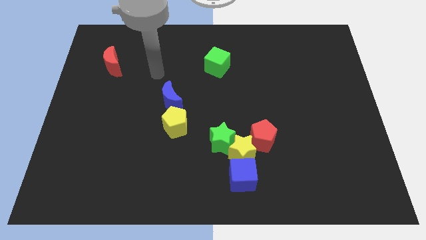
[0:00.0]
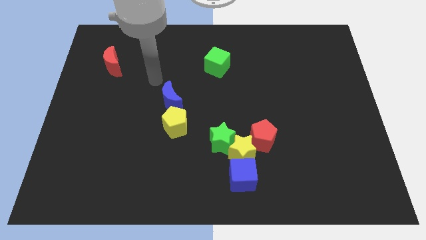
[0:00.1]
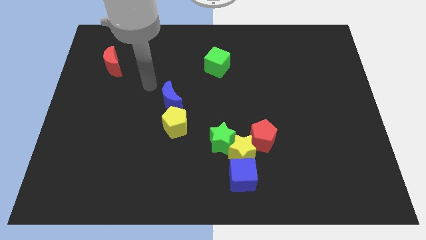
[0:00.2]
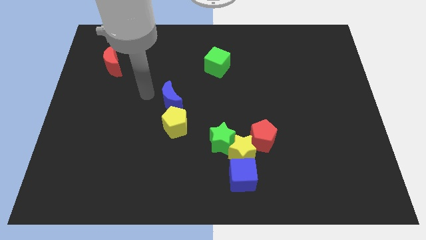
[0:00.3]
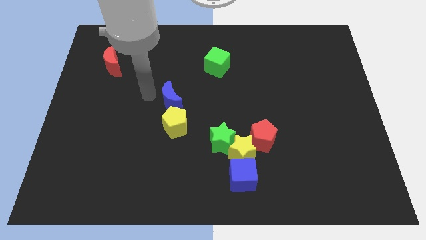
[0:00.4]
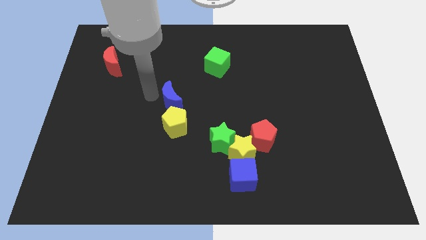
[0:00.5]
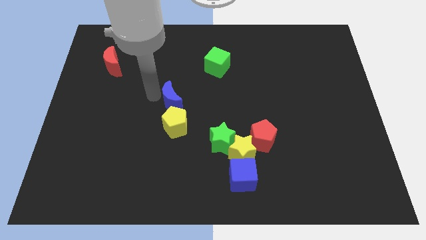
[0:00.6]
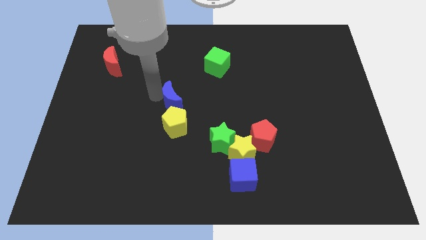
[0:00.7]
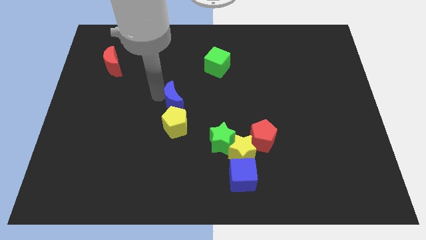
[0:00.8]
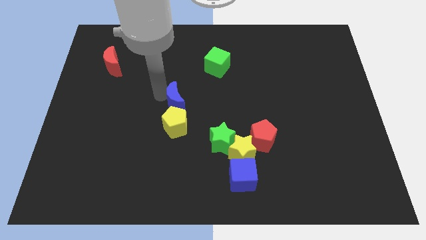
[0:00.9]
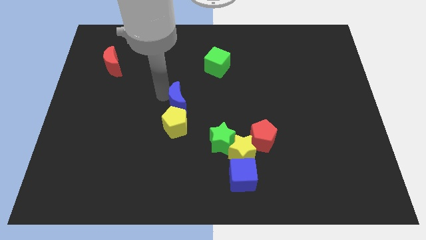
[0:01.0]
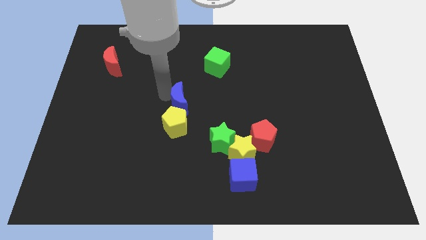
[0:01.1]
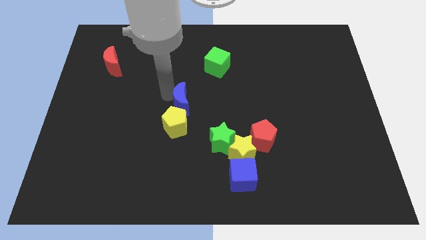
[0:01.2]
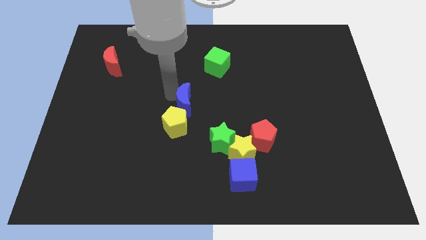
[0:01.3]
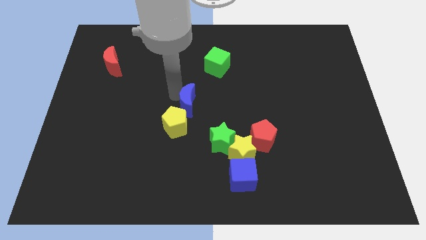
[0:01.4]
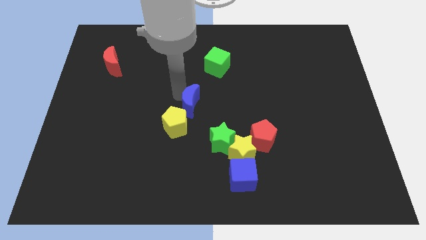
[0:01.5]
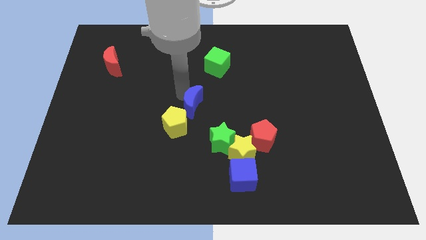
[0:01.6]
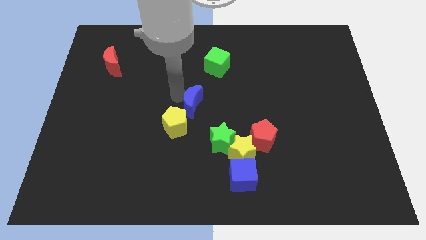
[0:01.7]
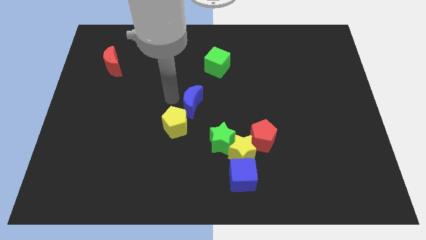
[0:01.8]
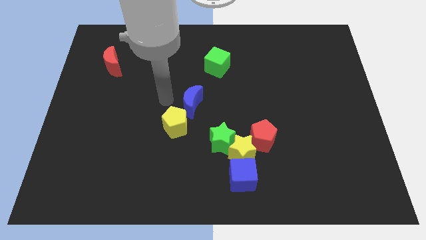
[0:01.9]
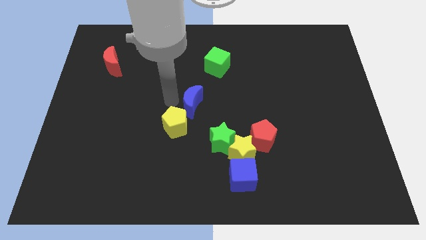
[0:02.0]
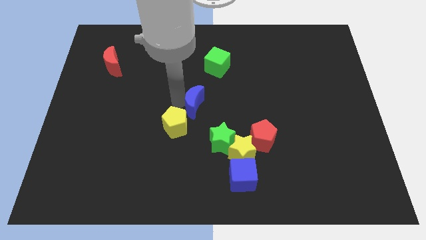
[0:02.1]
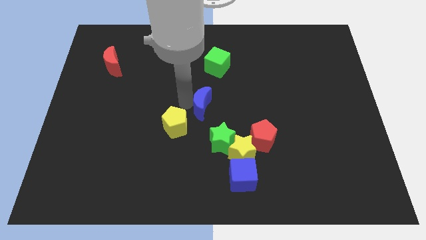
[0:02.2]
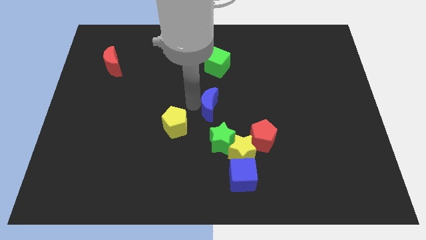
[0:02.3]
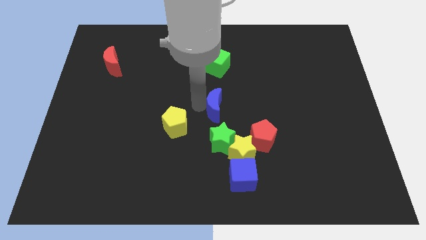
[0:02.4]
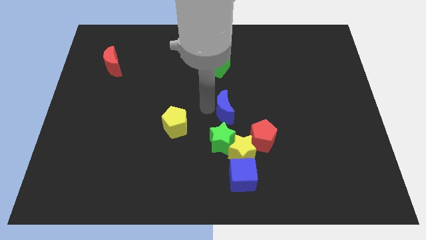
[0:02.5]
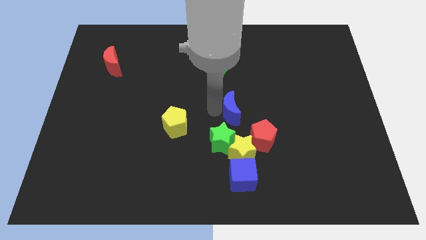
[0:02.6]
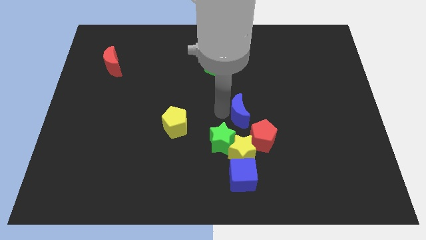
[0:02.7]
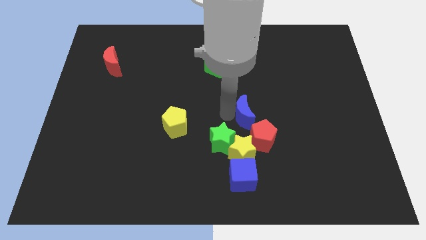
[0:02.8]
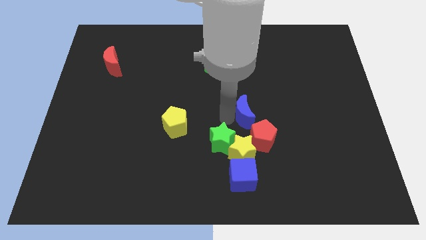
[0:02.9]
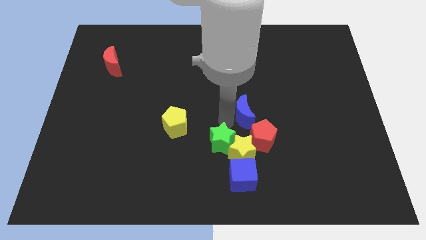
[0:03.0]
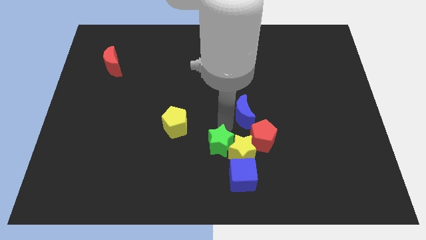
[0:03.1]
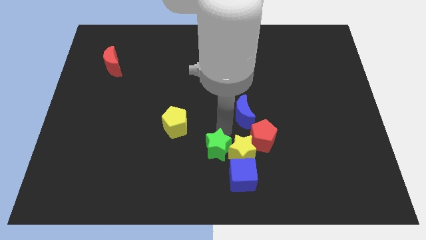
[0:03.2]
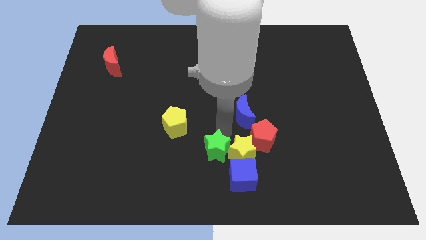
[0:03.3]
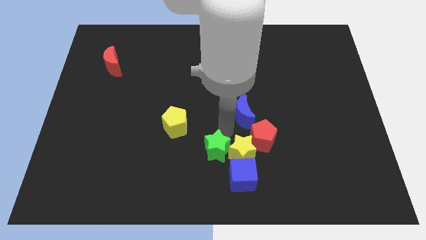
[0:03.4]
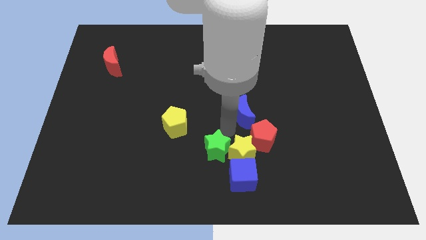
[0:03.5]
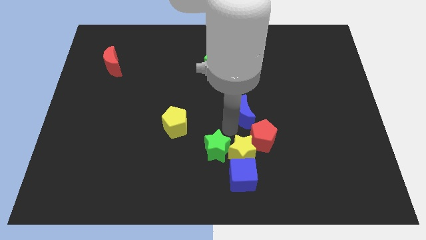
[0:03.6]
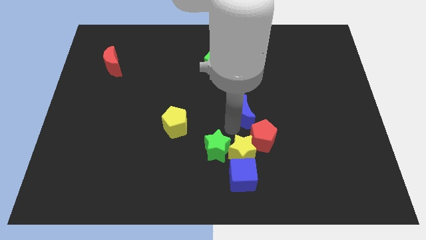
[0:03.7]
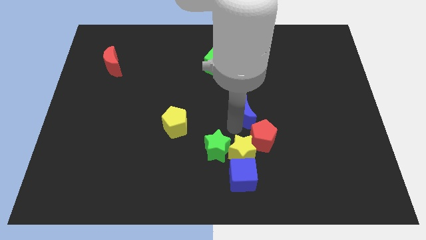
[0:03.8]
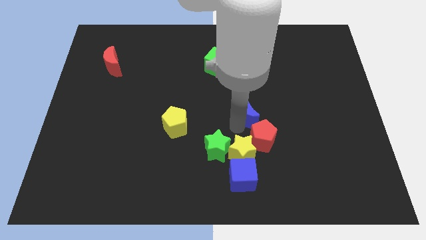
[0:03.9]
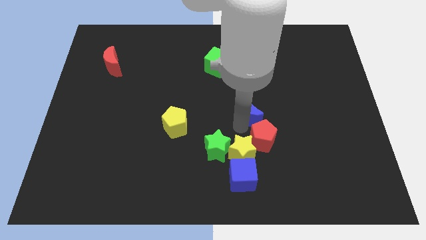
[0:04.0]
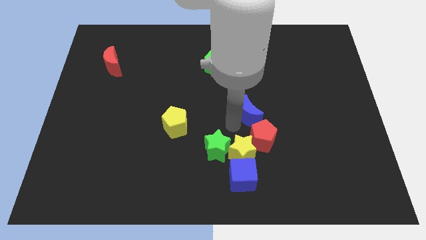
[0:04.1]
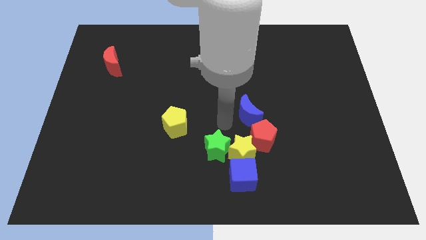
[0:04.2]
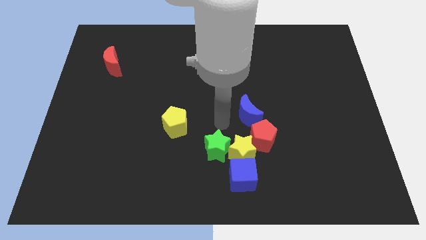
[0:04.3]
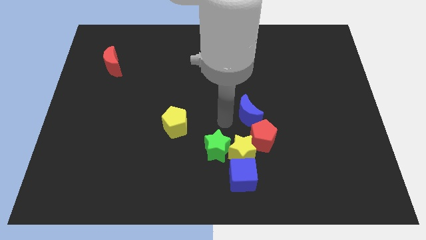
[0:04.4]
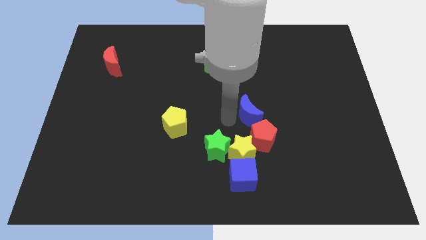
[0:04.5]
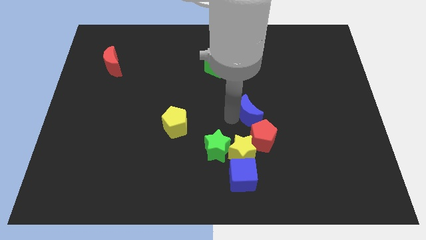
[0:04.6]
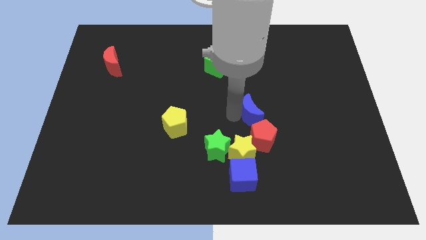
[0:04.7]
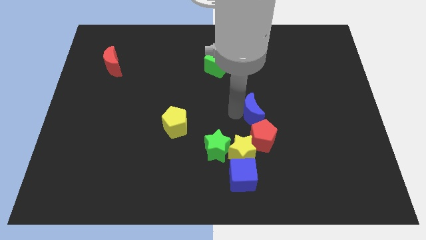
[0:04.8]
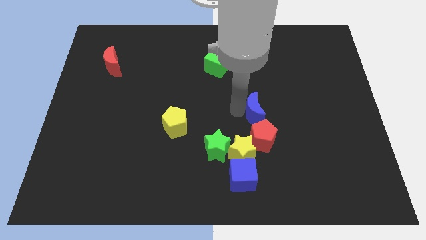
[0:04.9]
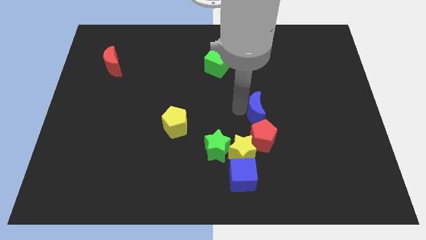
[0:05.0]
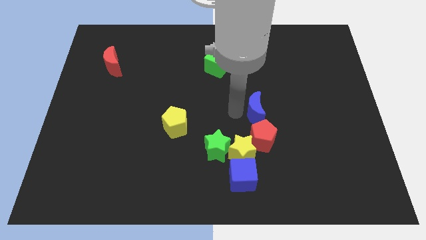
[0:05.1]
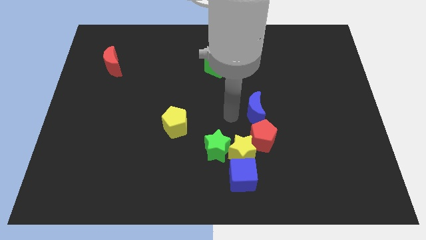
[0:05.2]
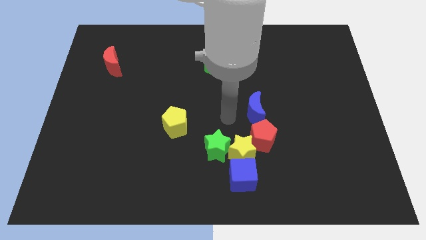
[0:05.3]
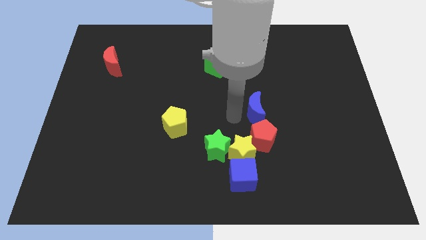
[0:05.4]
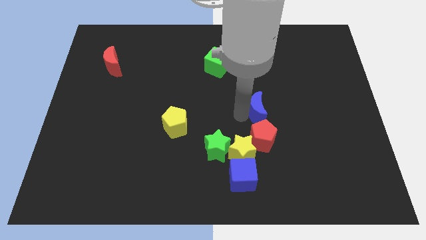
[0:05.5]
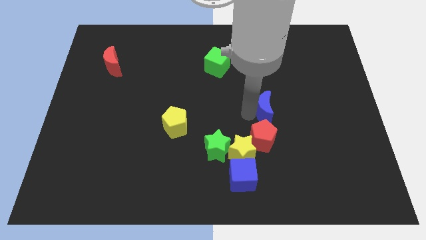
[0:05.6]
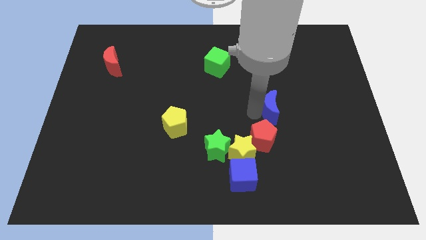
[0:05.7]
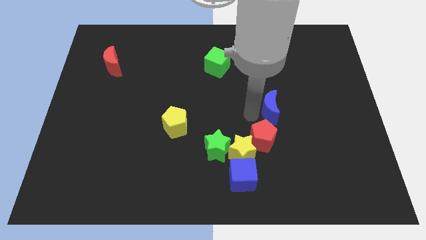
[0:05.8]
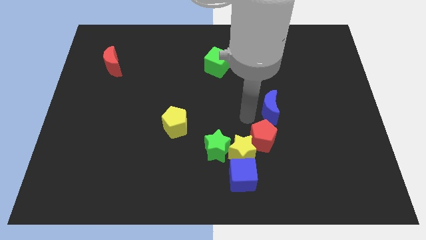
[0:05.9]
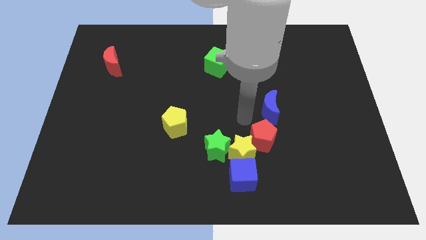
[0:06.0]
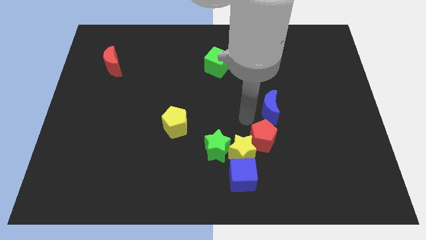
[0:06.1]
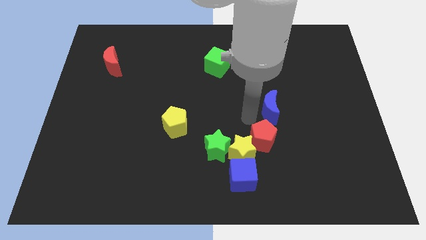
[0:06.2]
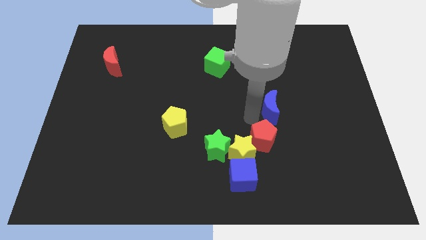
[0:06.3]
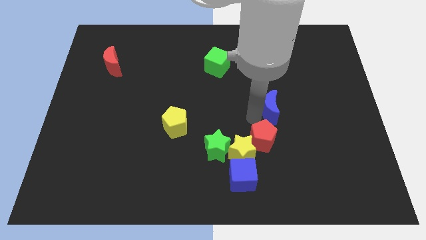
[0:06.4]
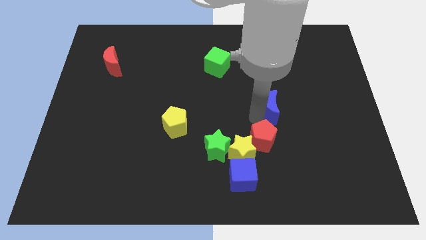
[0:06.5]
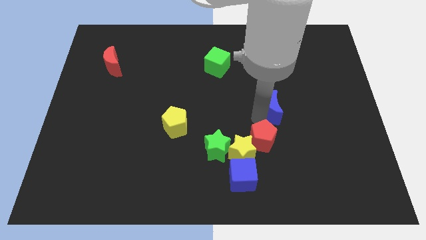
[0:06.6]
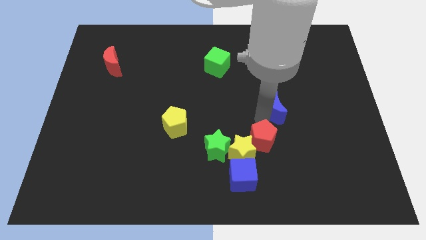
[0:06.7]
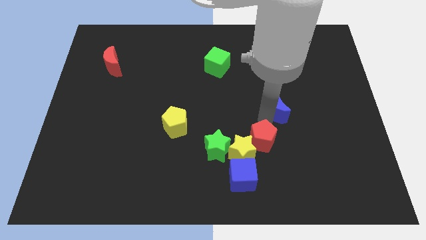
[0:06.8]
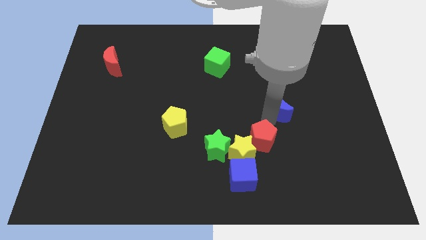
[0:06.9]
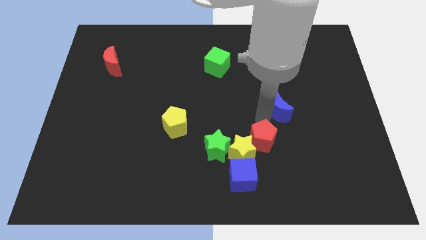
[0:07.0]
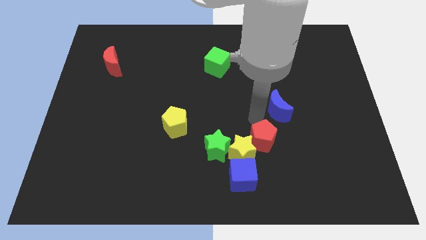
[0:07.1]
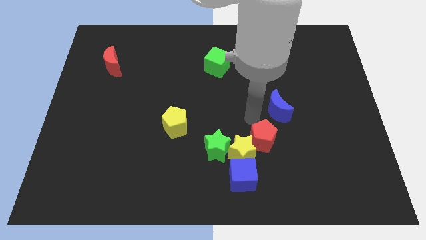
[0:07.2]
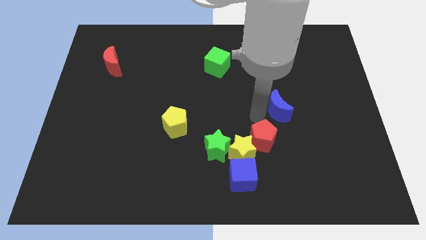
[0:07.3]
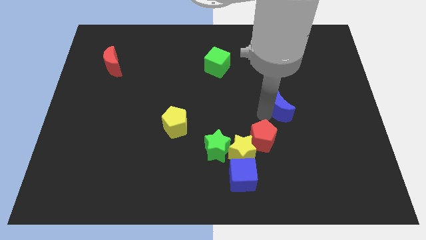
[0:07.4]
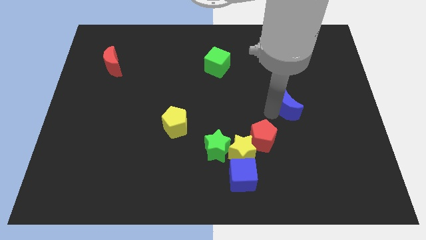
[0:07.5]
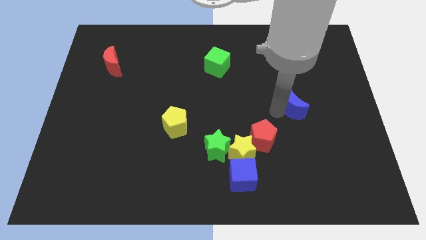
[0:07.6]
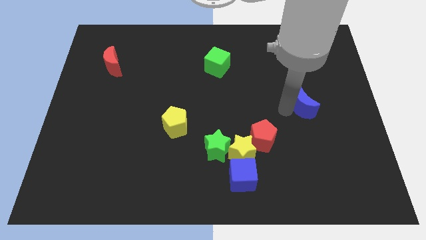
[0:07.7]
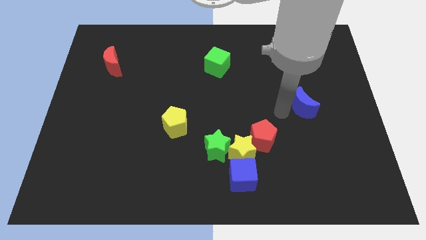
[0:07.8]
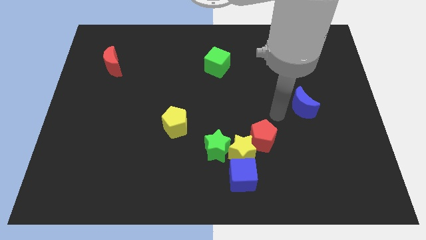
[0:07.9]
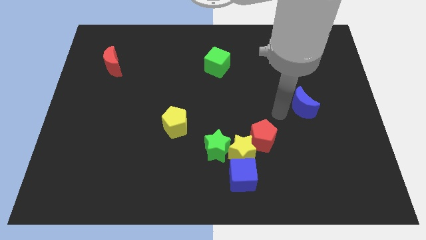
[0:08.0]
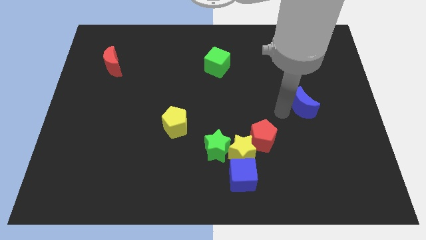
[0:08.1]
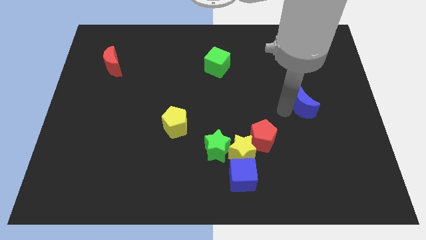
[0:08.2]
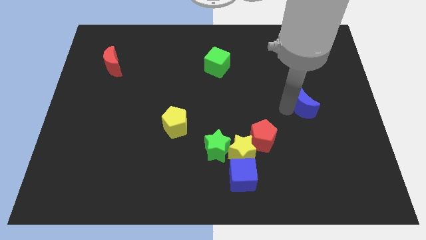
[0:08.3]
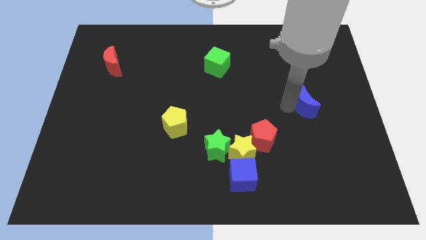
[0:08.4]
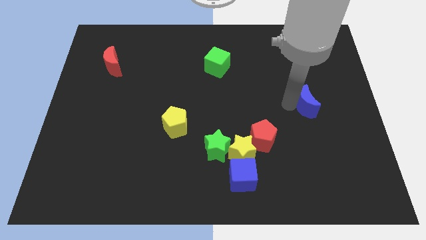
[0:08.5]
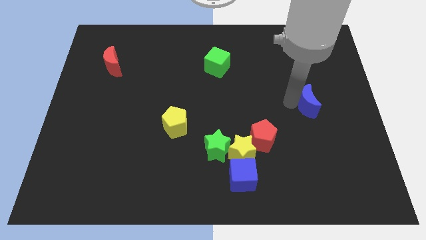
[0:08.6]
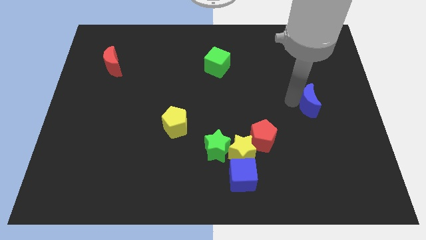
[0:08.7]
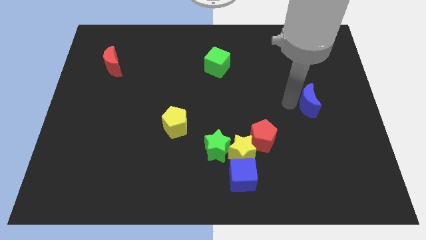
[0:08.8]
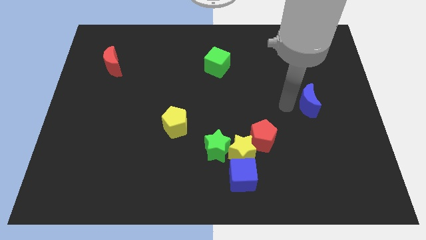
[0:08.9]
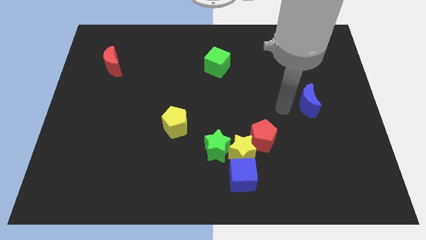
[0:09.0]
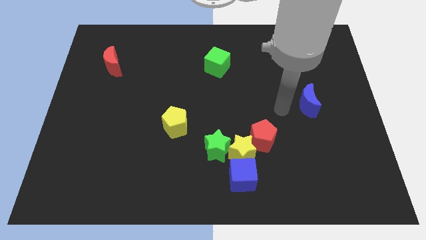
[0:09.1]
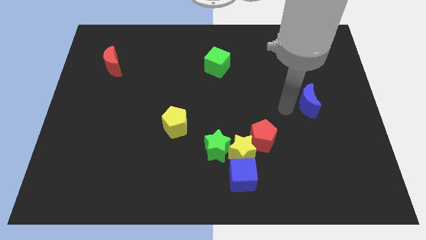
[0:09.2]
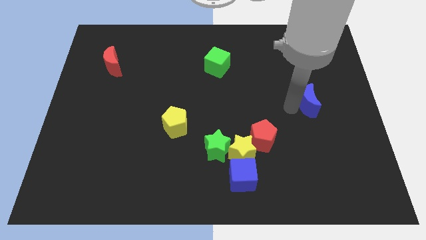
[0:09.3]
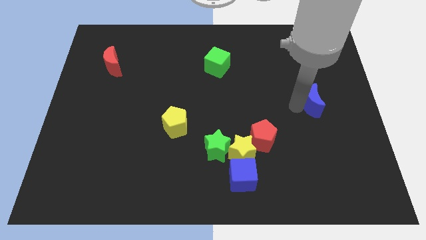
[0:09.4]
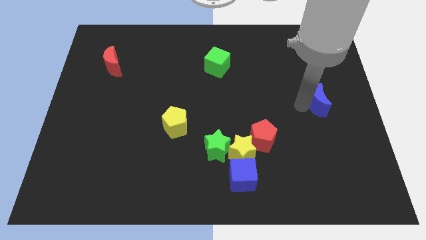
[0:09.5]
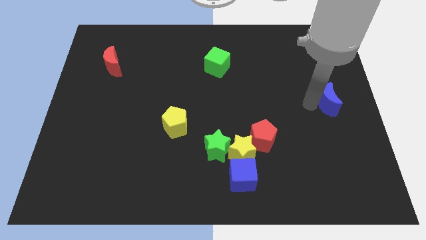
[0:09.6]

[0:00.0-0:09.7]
slide the blue moon to the right side
